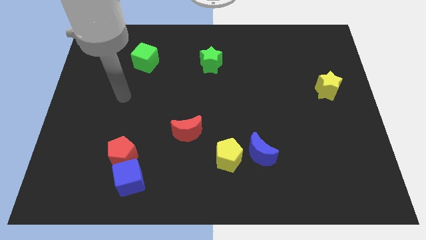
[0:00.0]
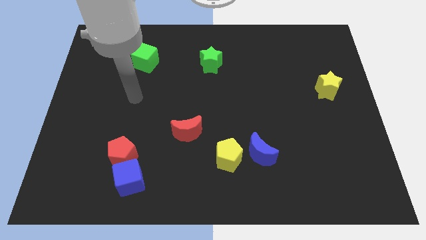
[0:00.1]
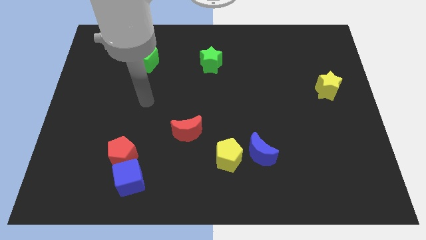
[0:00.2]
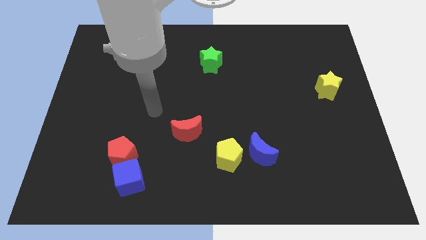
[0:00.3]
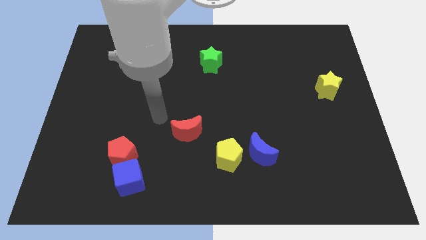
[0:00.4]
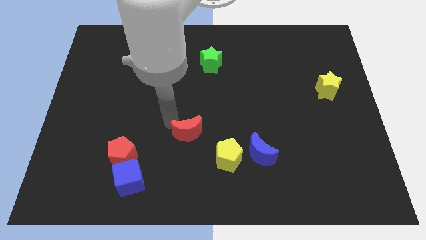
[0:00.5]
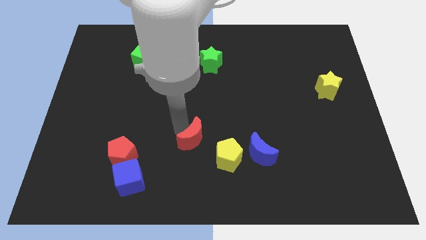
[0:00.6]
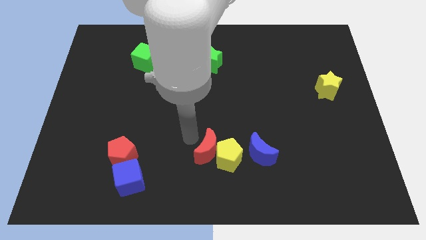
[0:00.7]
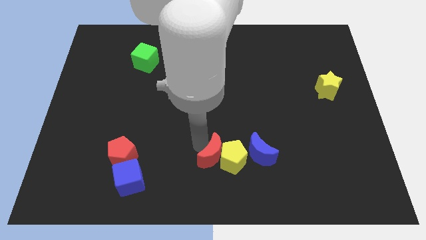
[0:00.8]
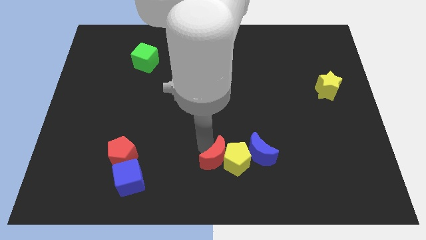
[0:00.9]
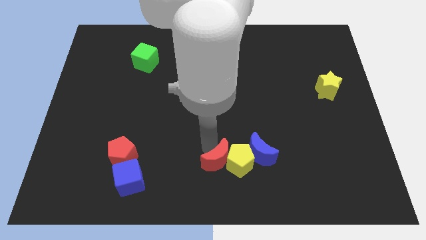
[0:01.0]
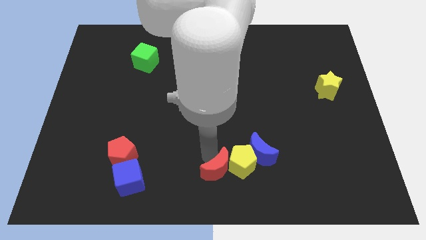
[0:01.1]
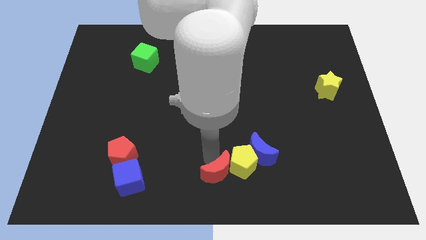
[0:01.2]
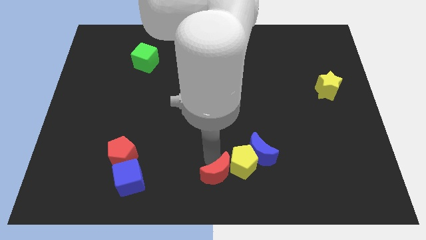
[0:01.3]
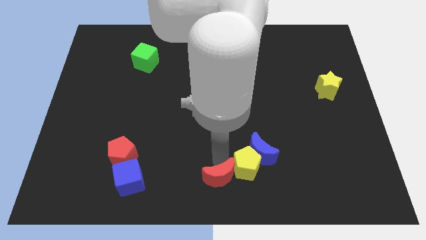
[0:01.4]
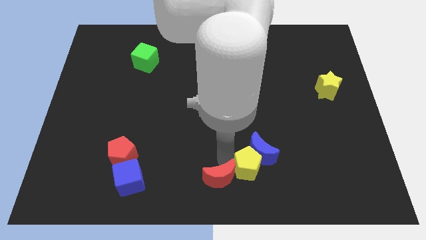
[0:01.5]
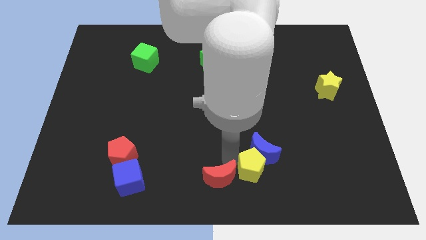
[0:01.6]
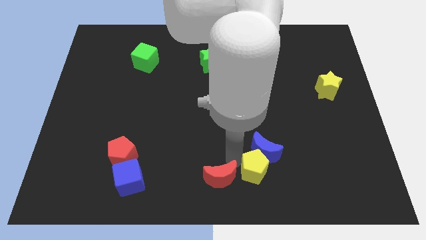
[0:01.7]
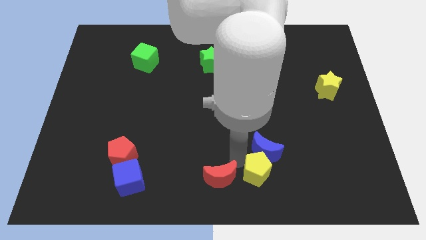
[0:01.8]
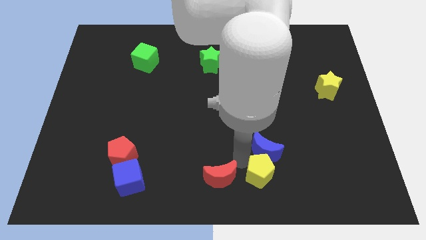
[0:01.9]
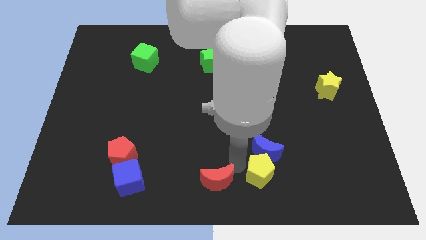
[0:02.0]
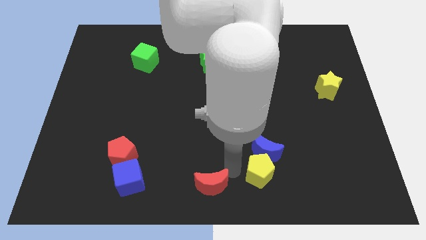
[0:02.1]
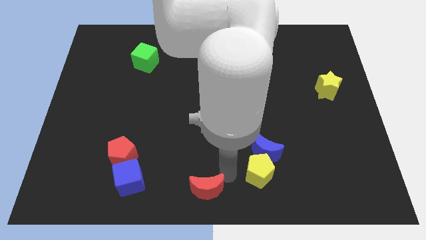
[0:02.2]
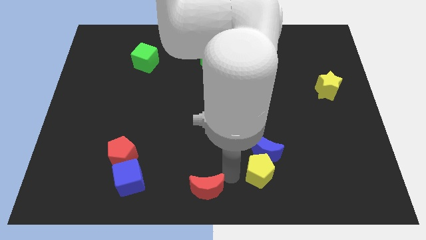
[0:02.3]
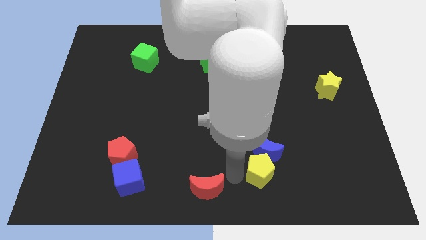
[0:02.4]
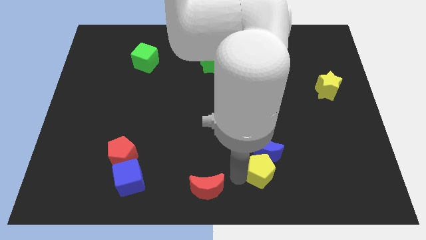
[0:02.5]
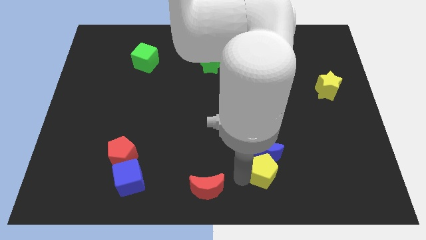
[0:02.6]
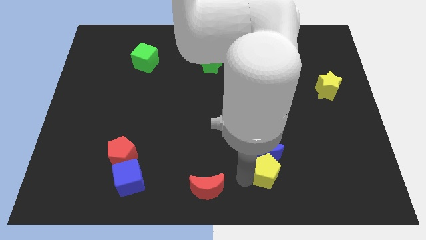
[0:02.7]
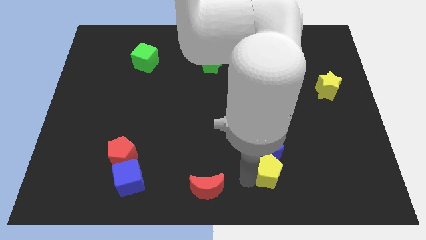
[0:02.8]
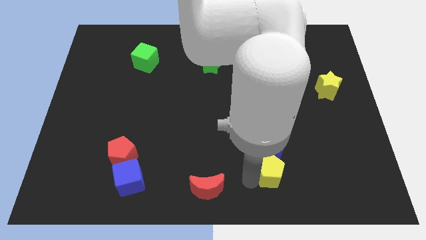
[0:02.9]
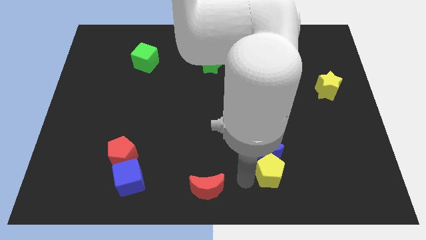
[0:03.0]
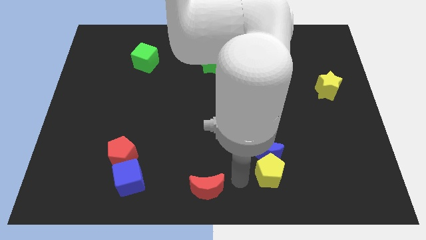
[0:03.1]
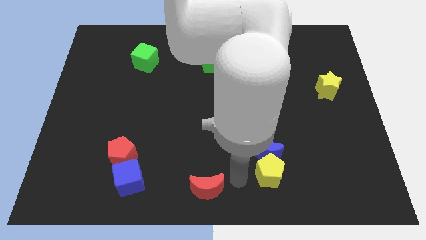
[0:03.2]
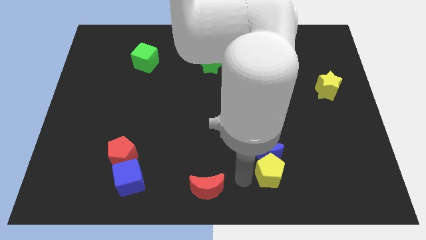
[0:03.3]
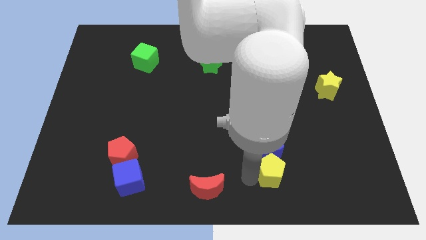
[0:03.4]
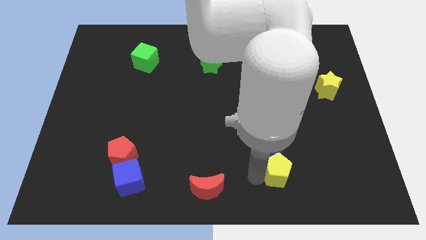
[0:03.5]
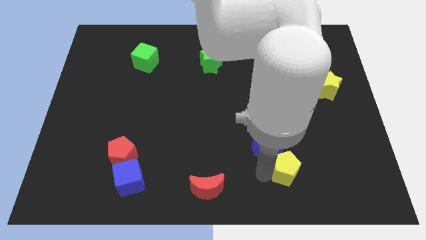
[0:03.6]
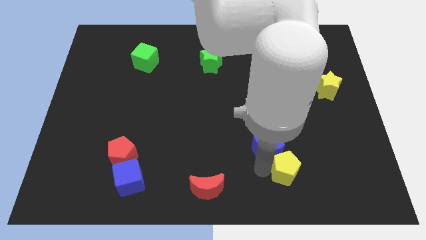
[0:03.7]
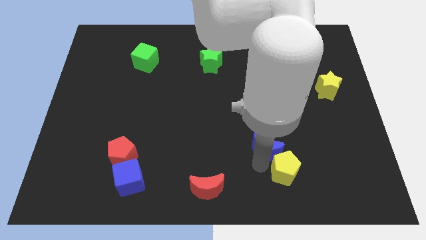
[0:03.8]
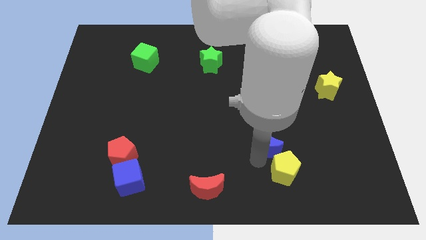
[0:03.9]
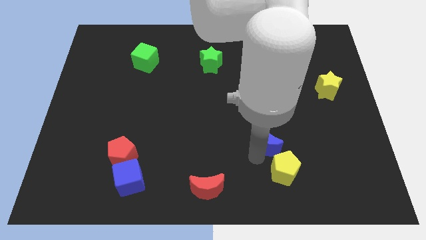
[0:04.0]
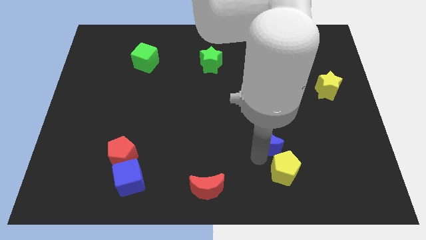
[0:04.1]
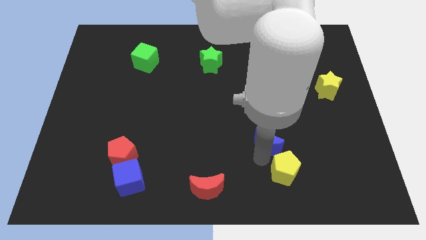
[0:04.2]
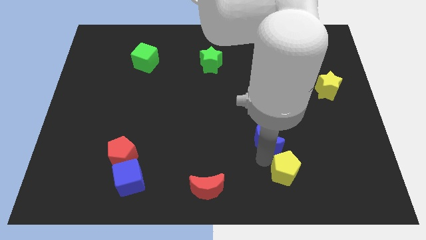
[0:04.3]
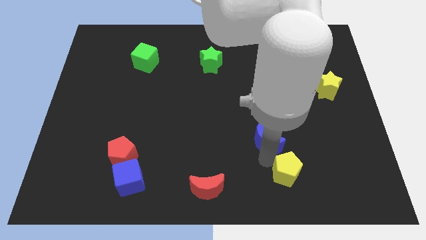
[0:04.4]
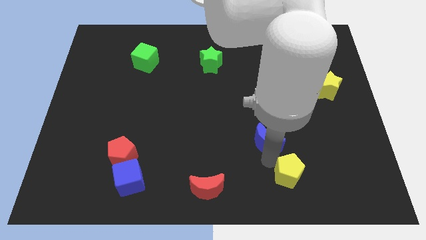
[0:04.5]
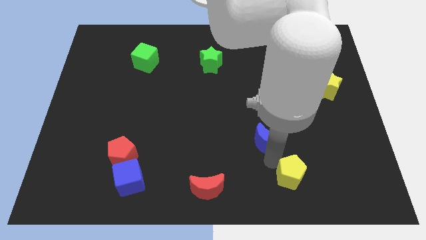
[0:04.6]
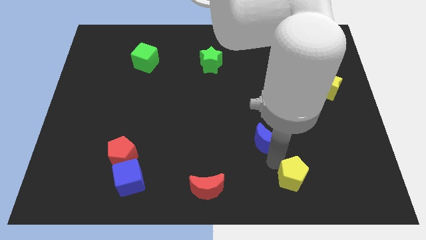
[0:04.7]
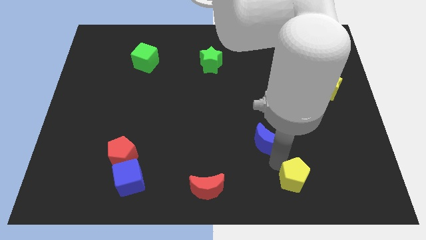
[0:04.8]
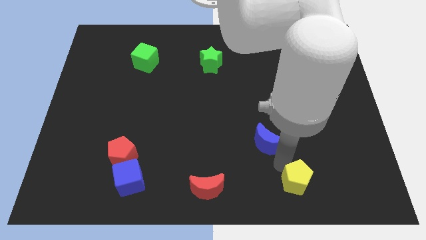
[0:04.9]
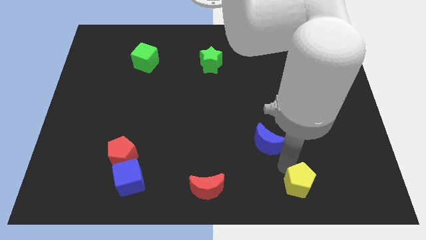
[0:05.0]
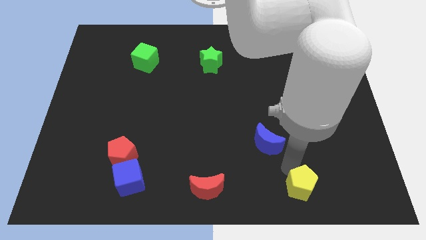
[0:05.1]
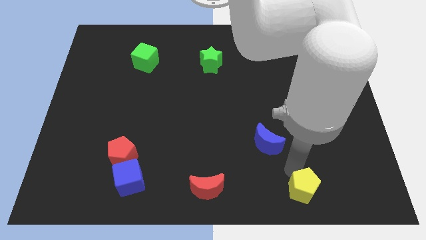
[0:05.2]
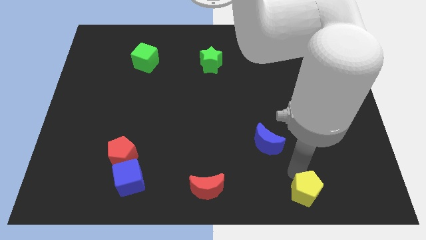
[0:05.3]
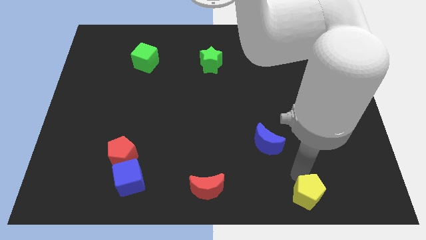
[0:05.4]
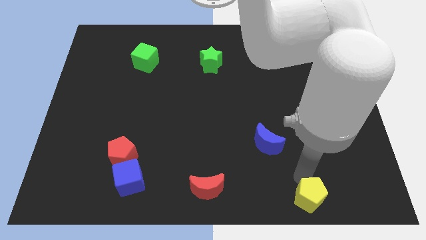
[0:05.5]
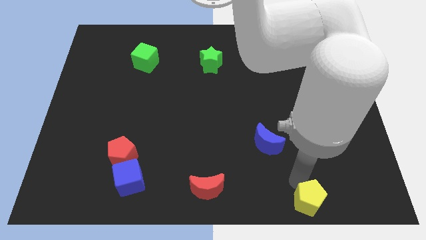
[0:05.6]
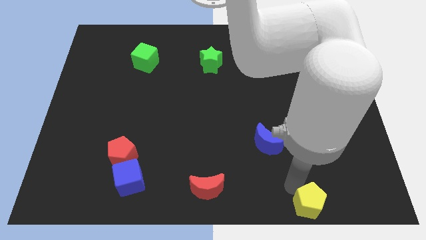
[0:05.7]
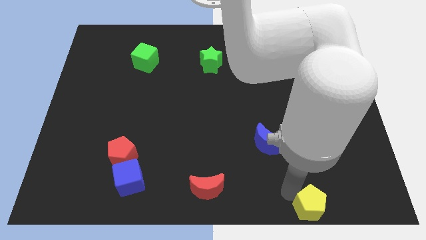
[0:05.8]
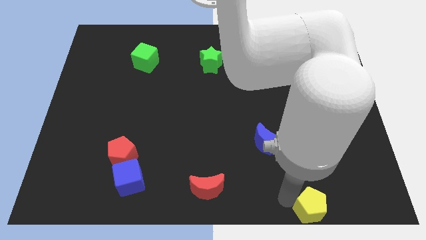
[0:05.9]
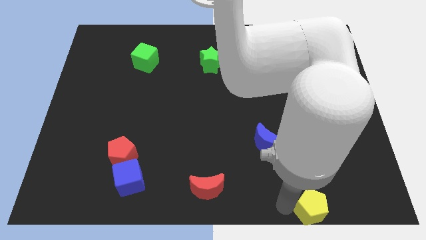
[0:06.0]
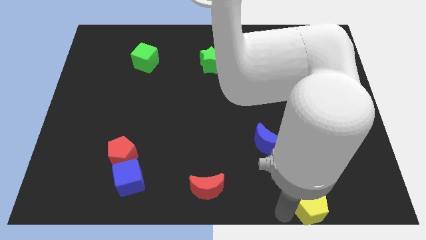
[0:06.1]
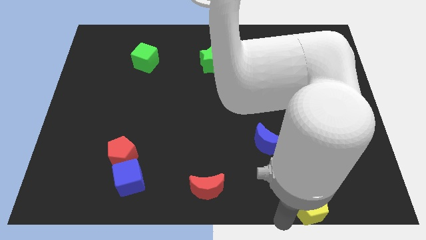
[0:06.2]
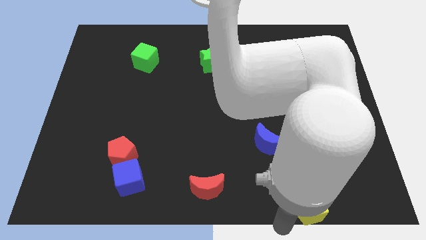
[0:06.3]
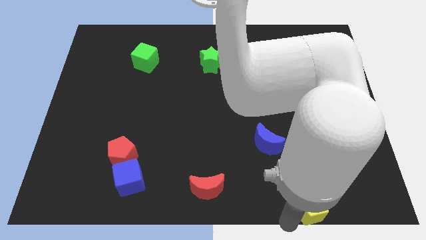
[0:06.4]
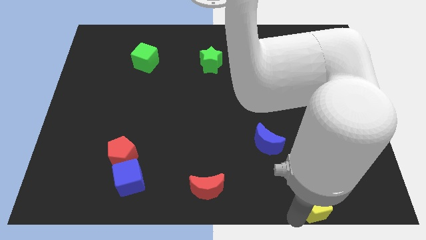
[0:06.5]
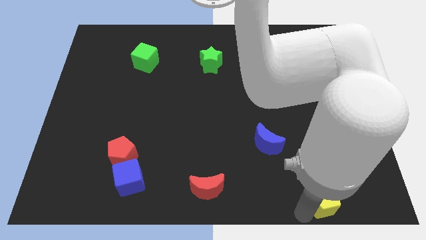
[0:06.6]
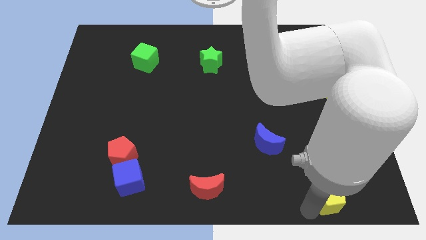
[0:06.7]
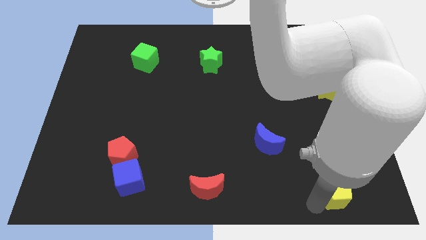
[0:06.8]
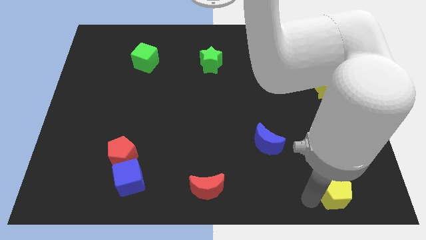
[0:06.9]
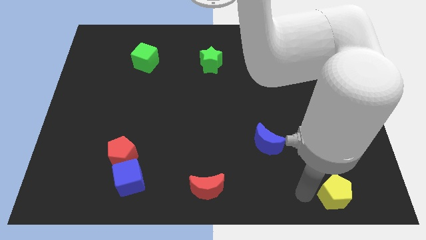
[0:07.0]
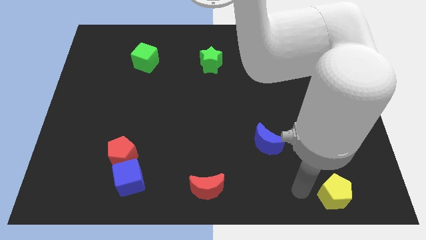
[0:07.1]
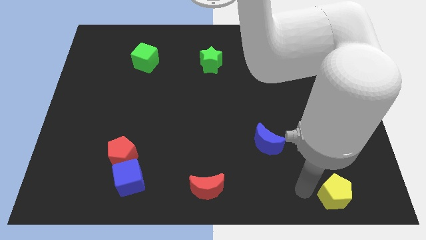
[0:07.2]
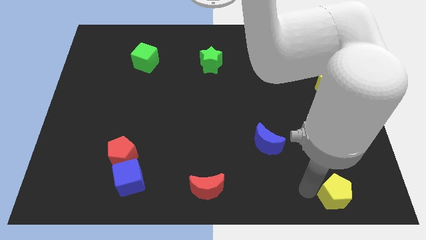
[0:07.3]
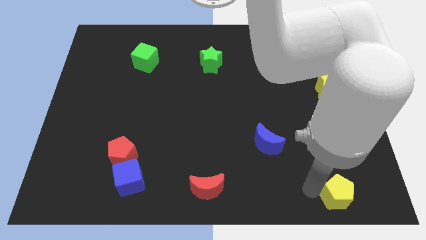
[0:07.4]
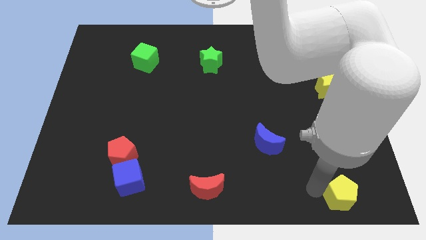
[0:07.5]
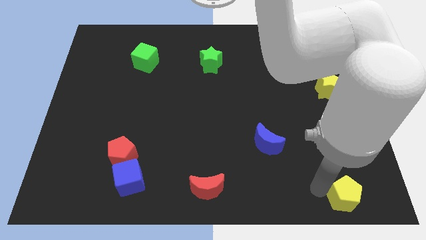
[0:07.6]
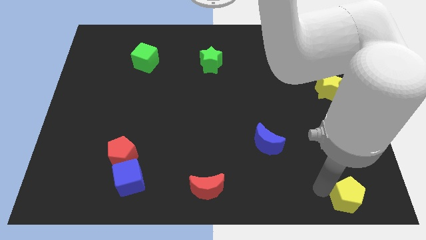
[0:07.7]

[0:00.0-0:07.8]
slide the yellow pentagon to the bottom right
